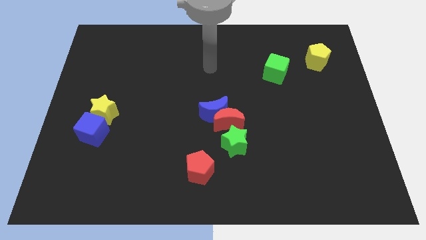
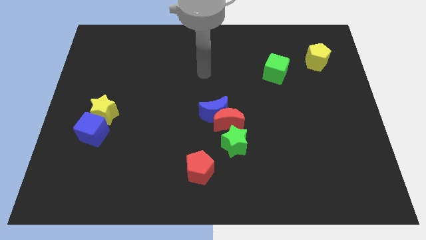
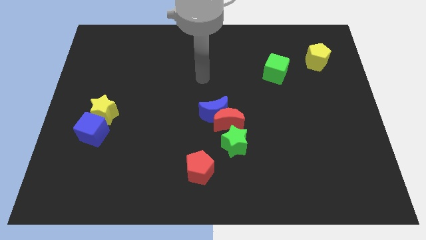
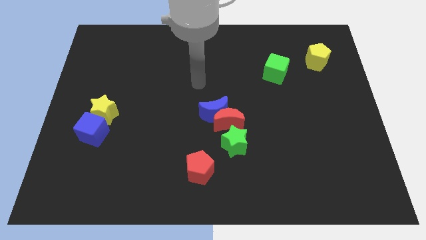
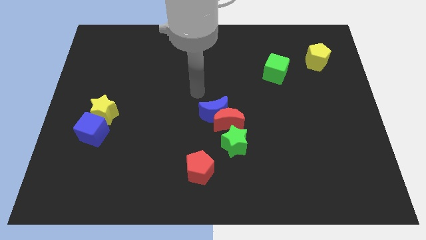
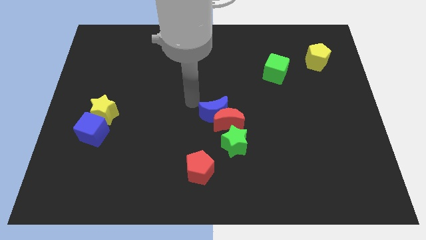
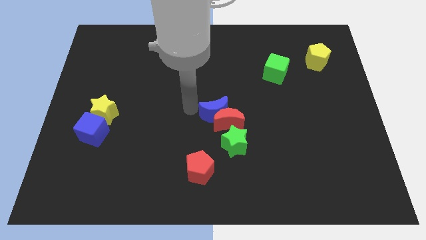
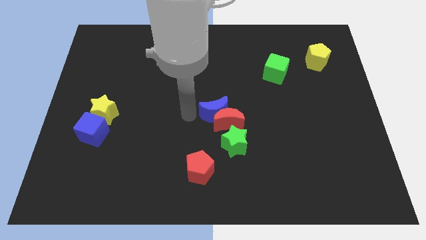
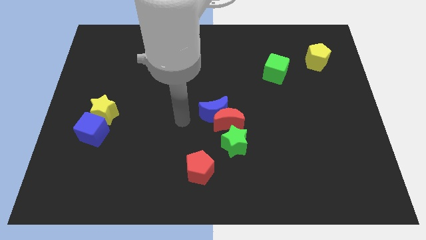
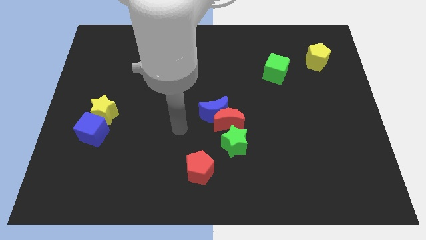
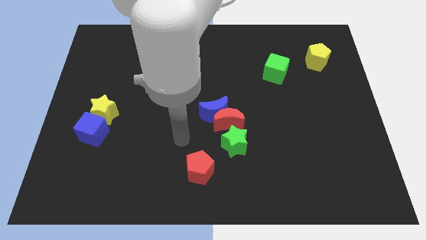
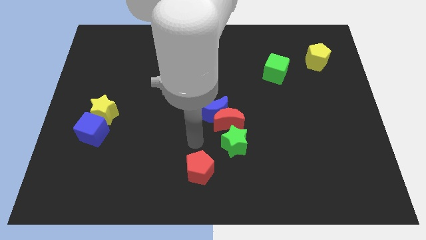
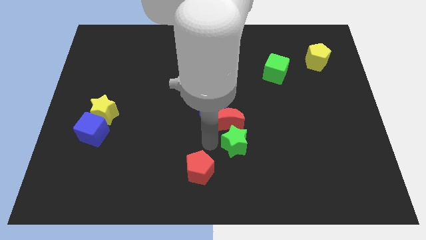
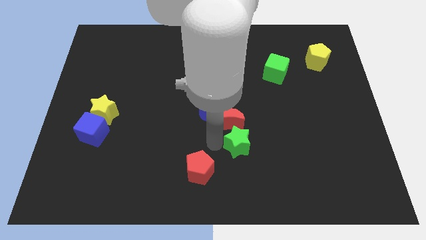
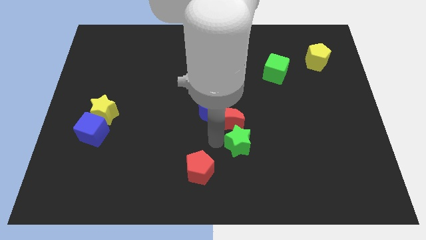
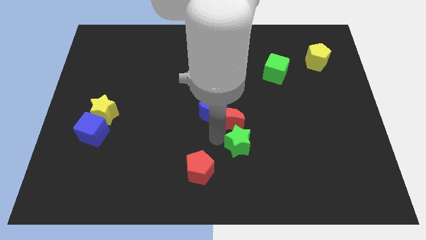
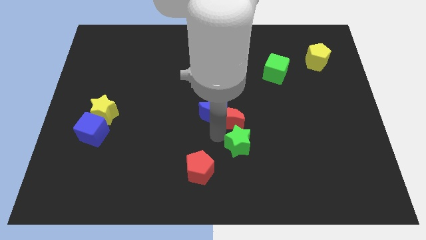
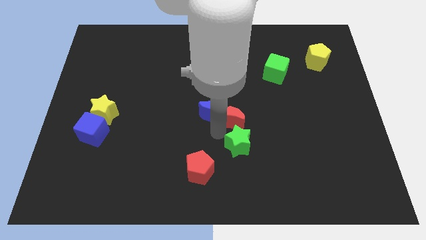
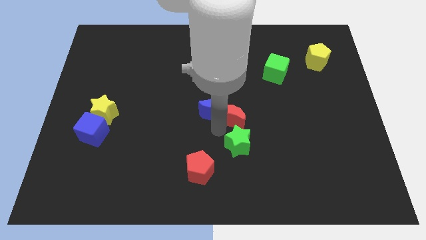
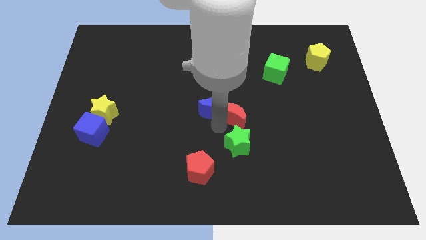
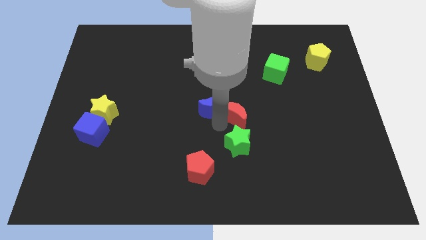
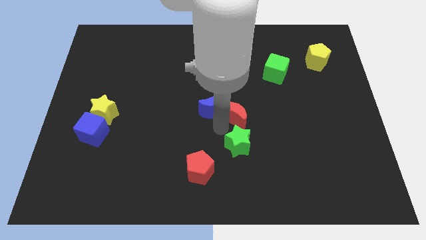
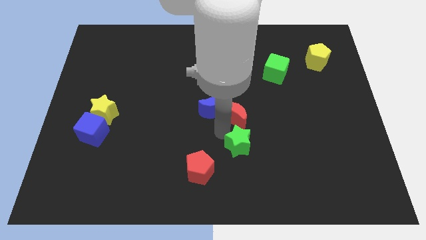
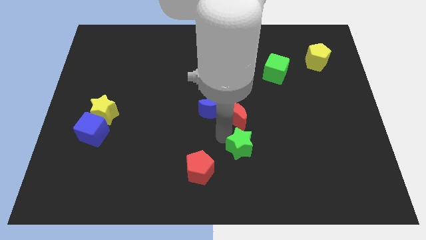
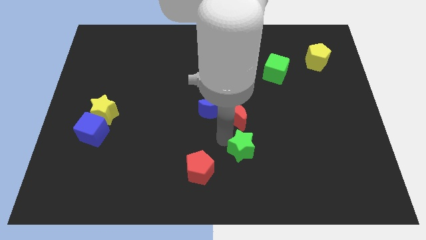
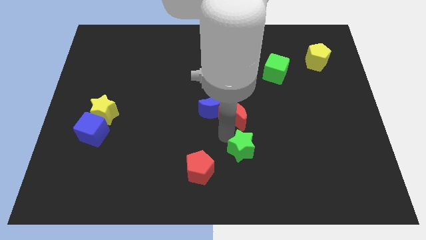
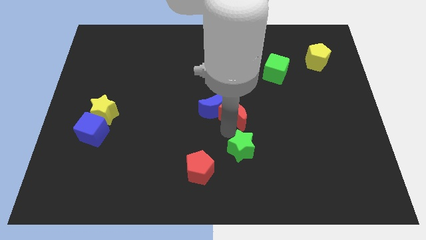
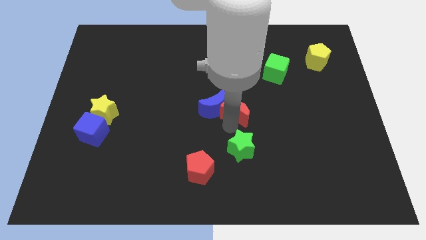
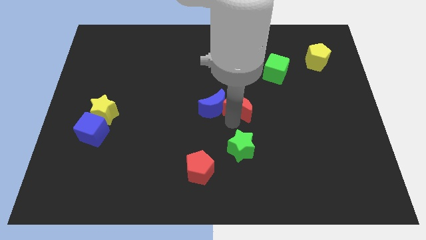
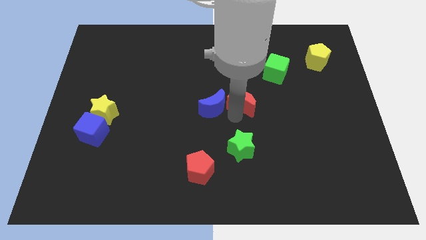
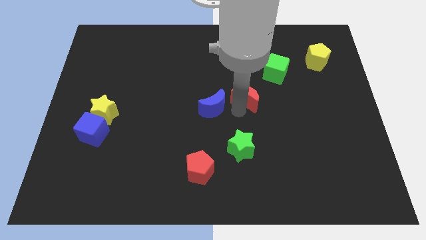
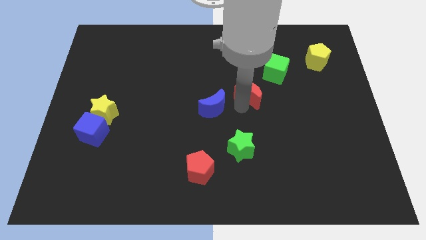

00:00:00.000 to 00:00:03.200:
pull the red moon apart from the blue moon and green star

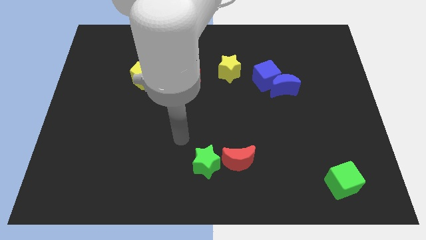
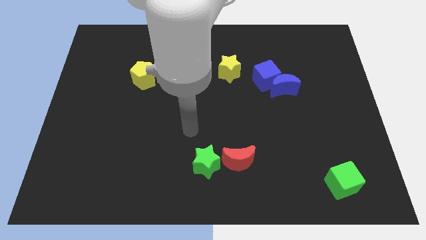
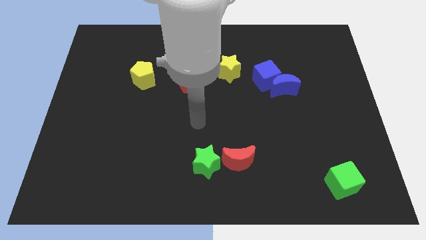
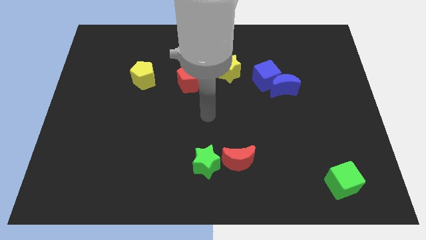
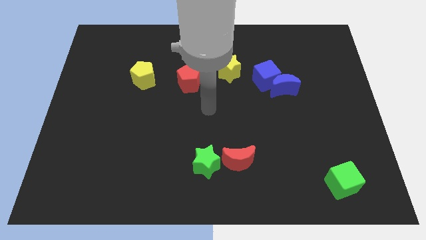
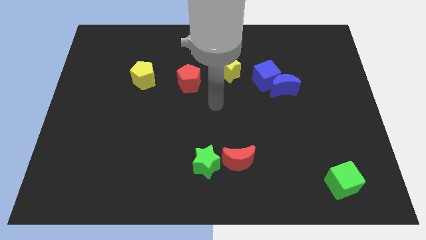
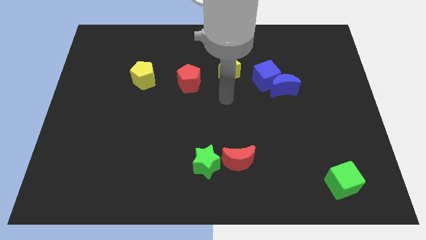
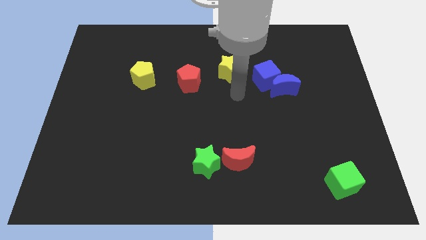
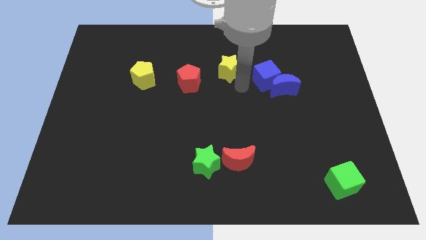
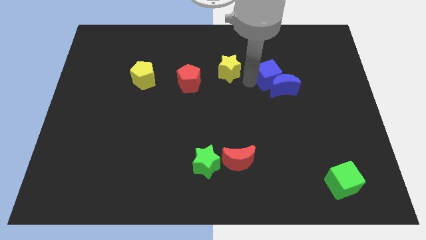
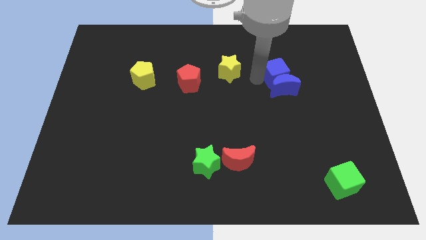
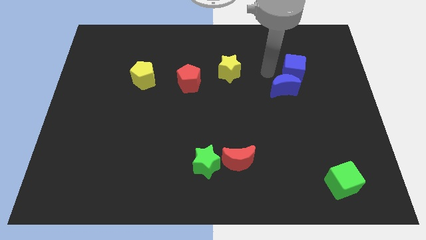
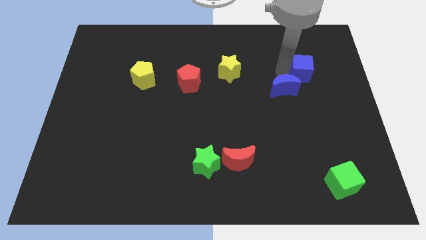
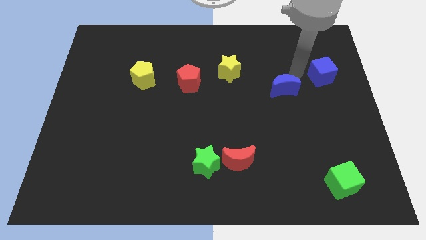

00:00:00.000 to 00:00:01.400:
move the blue moon away from the blue cube

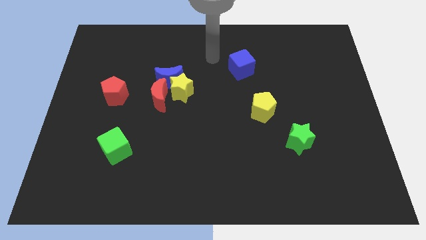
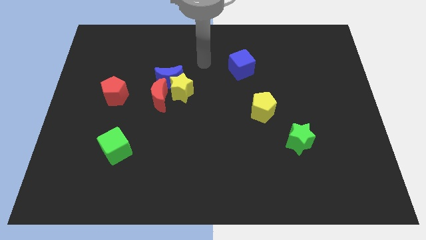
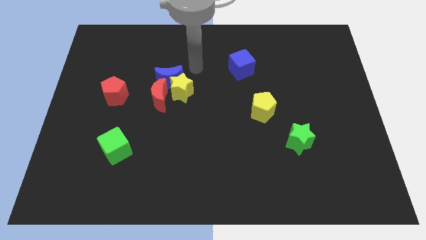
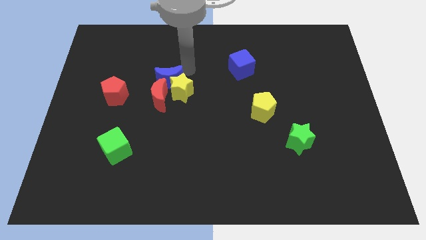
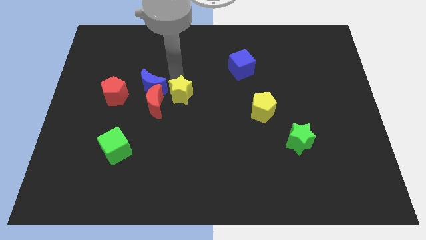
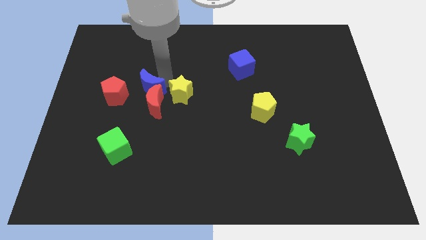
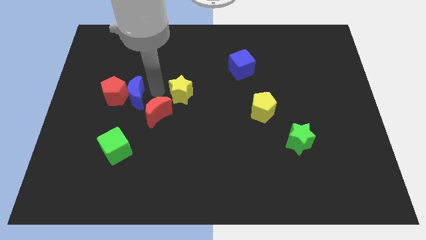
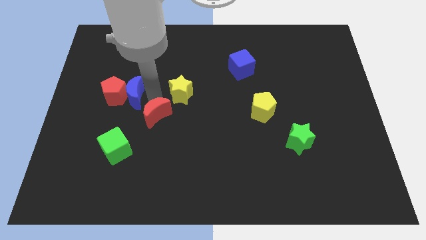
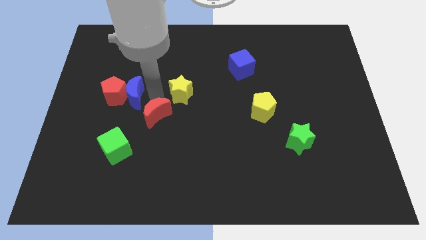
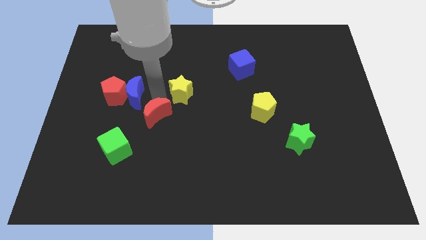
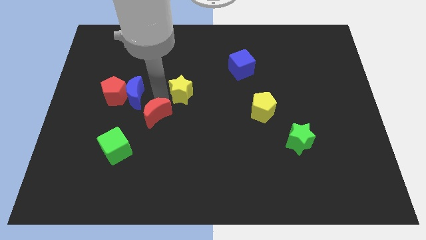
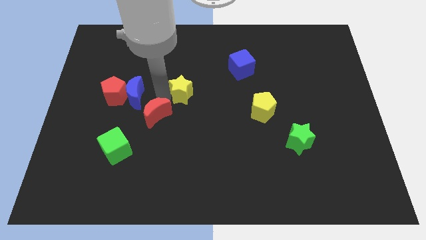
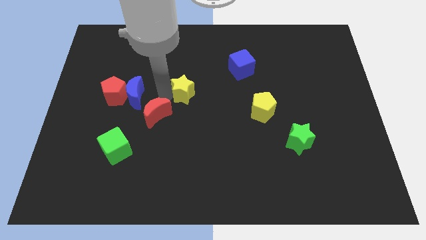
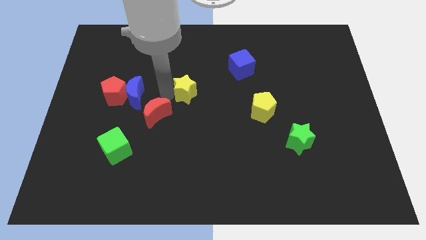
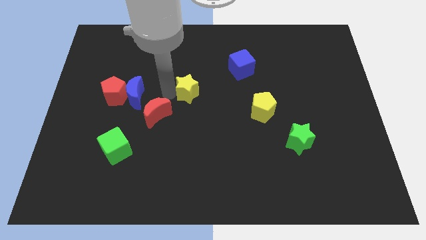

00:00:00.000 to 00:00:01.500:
move the yellow star away from the blue moon and red moon

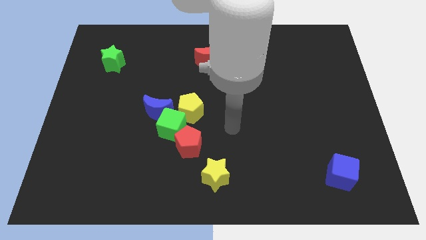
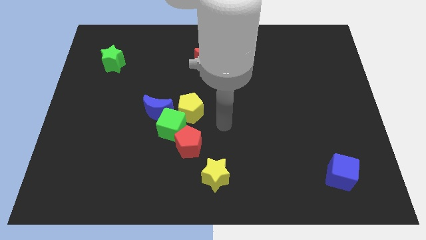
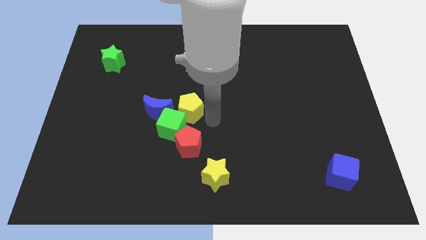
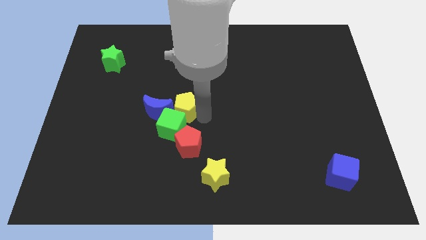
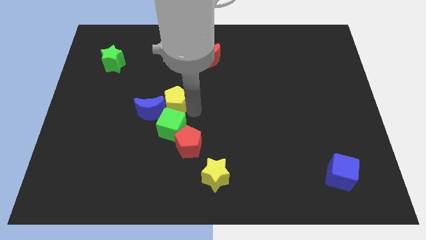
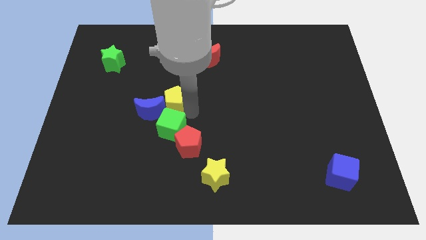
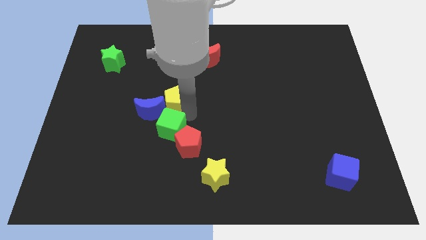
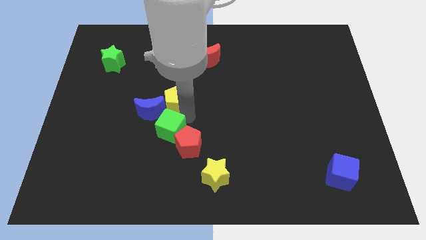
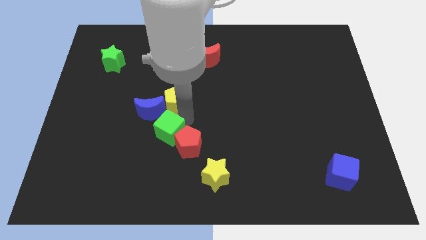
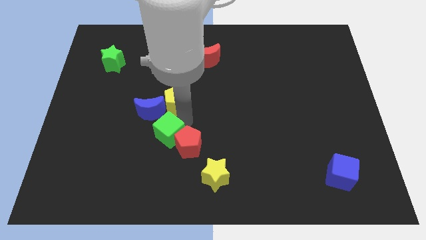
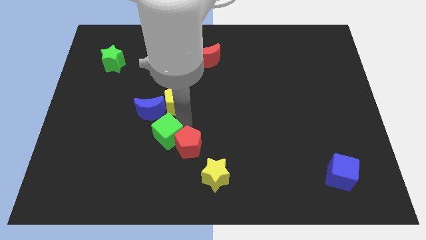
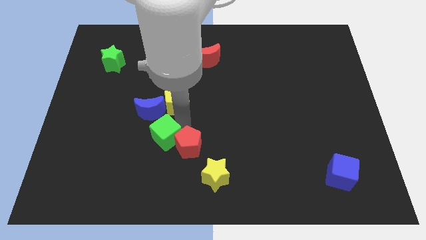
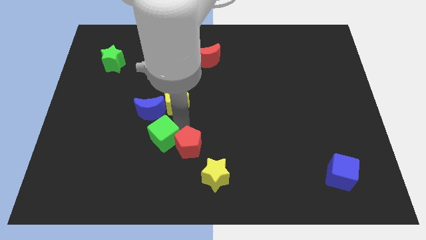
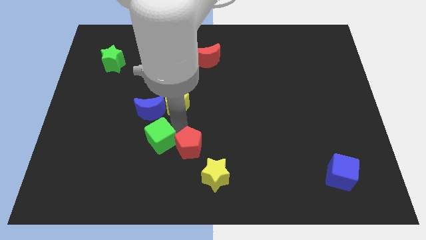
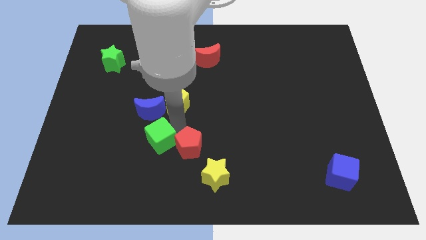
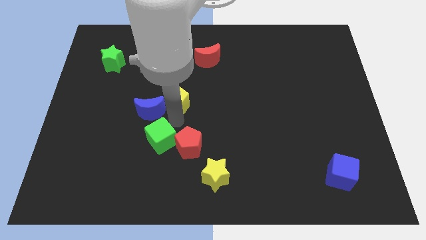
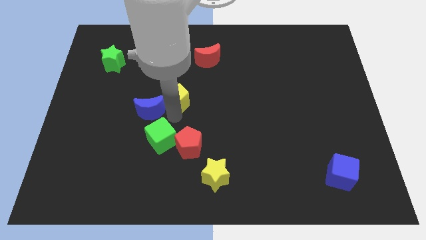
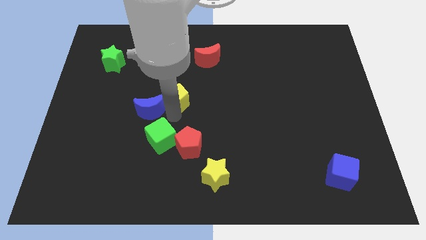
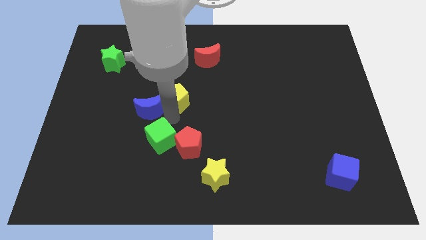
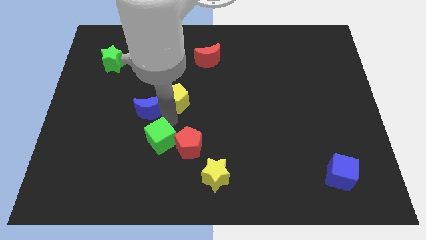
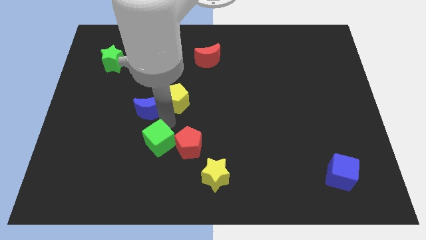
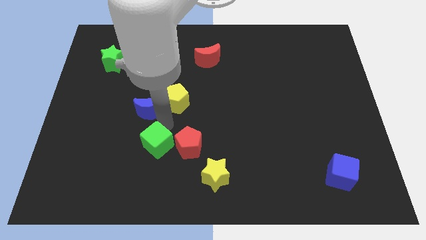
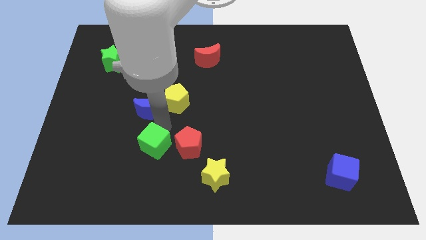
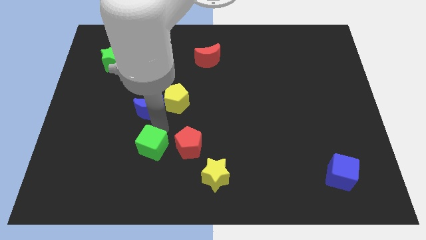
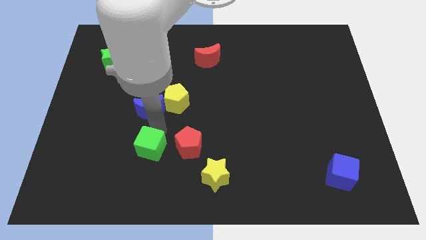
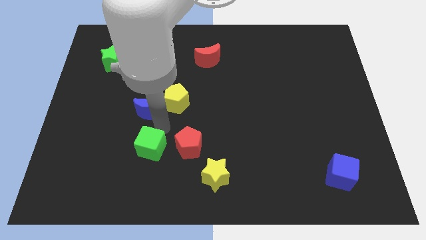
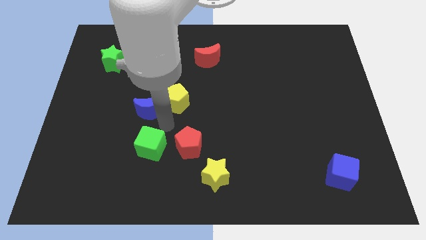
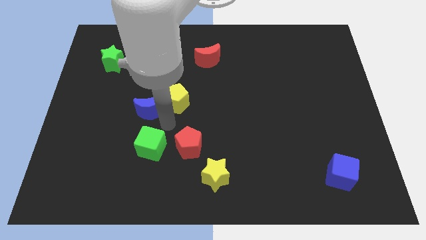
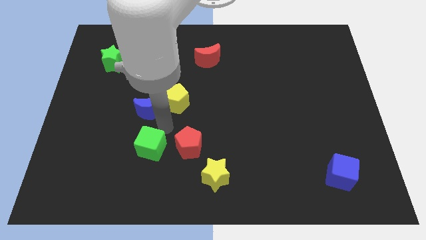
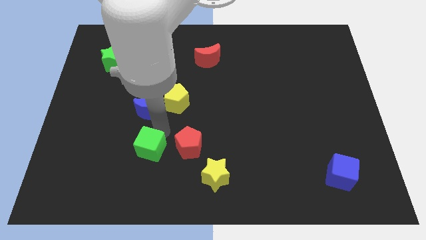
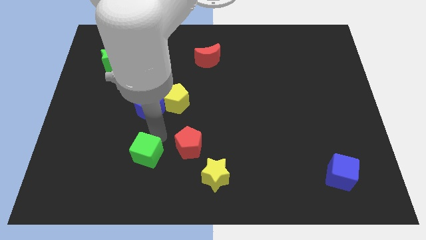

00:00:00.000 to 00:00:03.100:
separate the green cube from the blue moon, red pentagon, and yellow pentagon

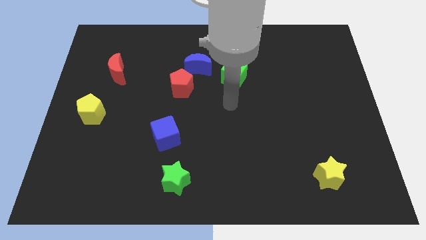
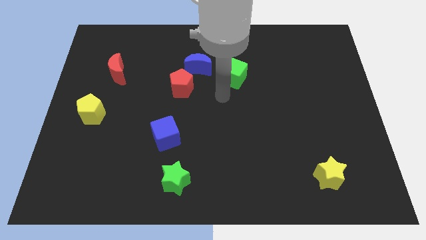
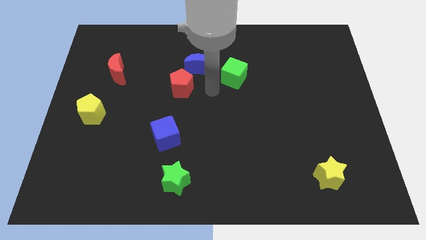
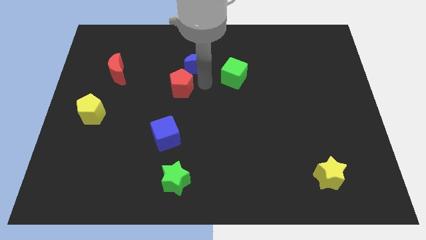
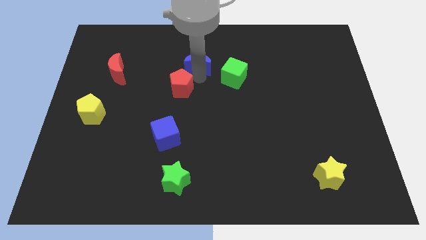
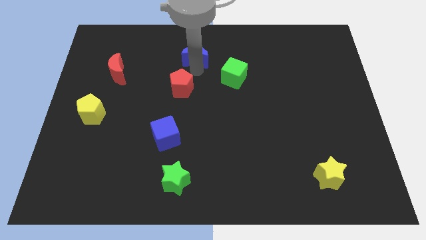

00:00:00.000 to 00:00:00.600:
move the red pentagon away from the blue moon
